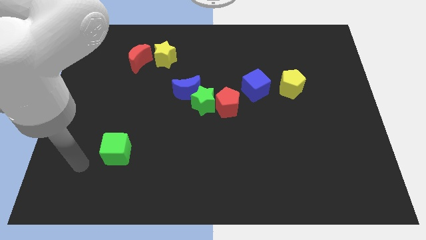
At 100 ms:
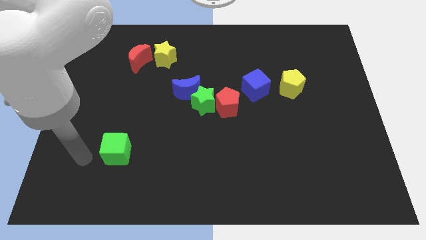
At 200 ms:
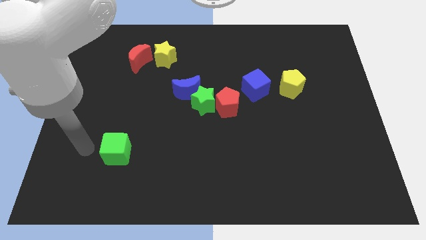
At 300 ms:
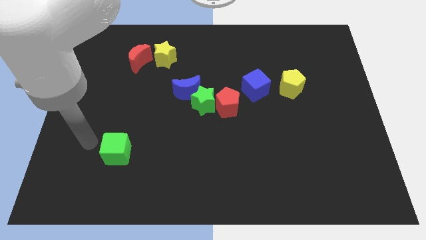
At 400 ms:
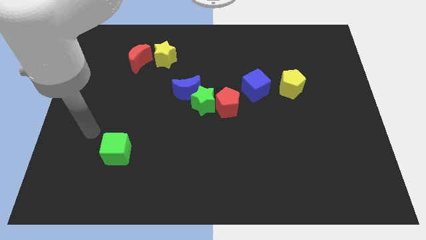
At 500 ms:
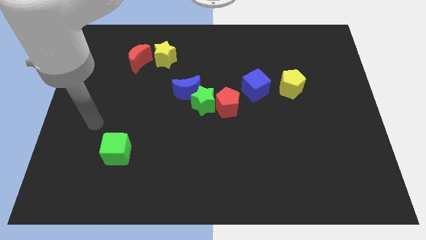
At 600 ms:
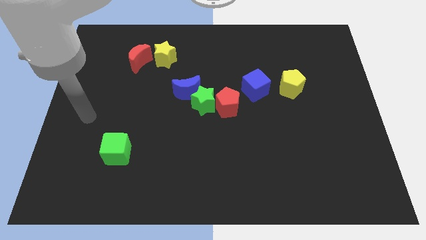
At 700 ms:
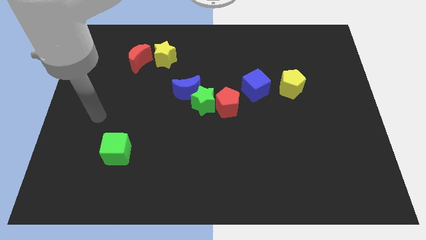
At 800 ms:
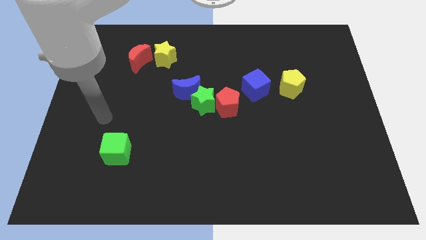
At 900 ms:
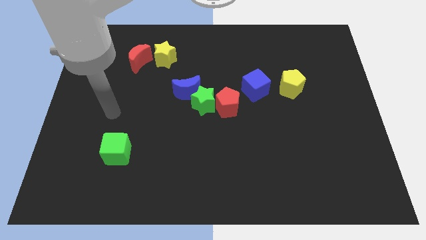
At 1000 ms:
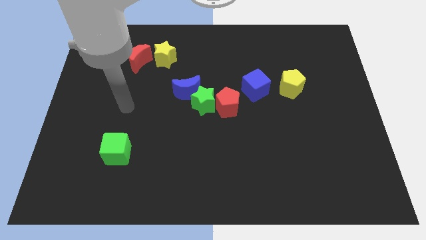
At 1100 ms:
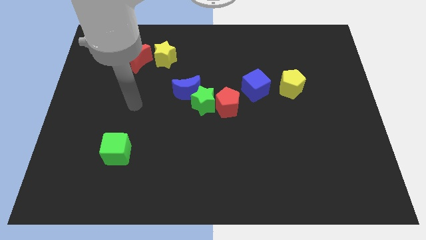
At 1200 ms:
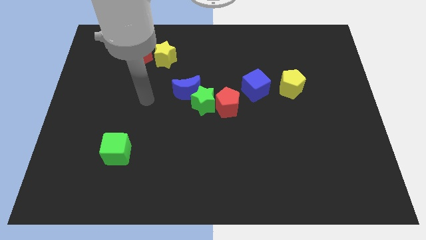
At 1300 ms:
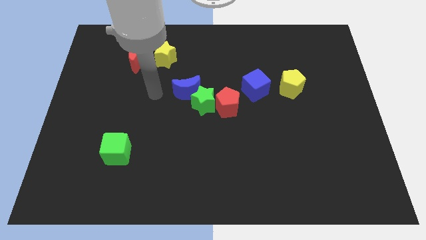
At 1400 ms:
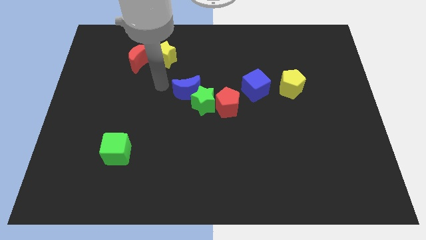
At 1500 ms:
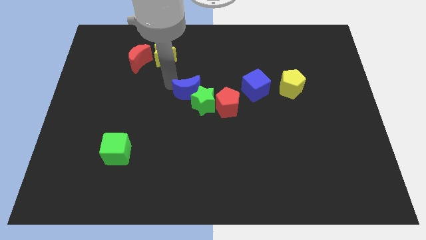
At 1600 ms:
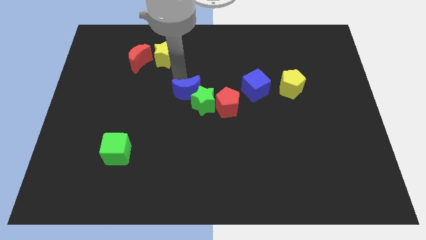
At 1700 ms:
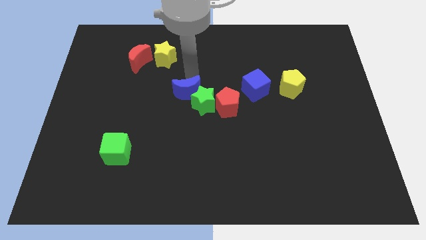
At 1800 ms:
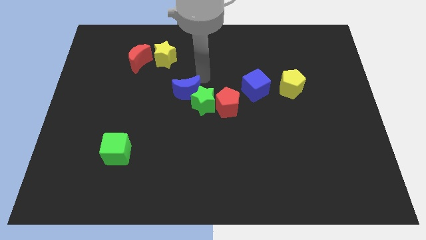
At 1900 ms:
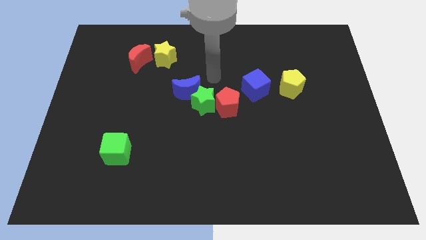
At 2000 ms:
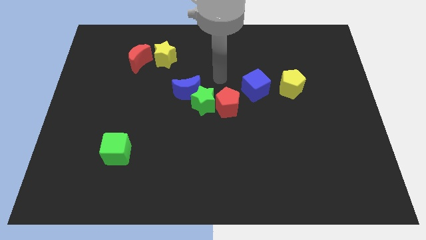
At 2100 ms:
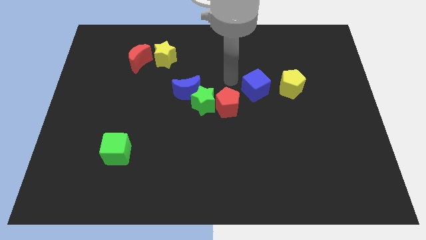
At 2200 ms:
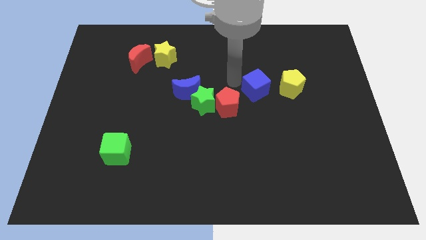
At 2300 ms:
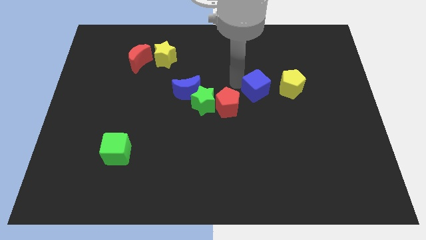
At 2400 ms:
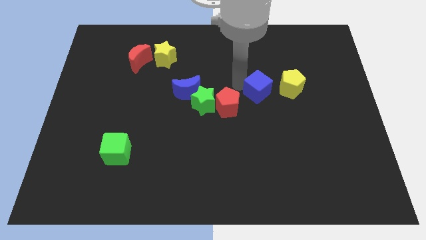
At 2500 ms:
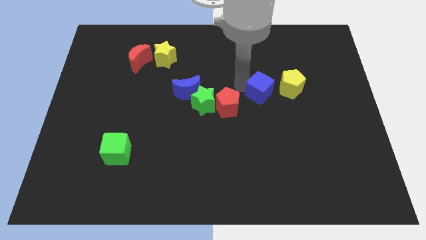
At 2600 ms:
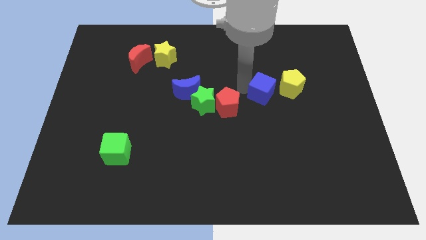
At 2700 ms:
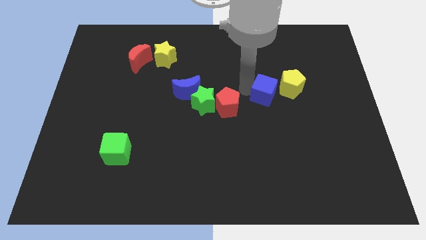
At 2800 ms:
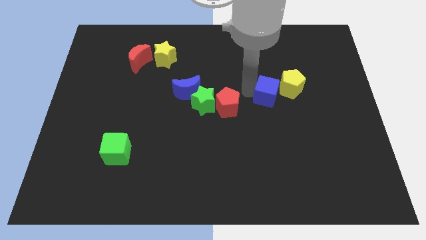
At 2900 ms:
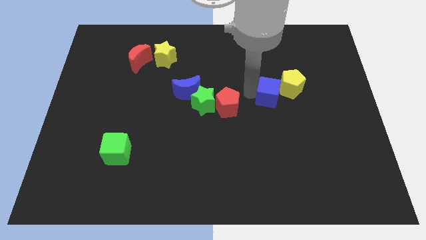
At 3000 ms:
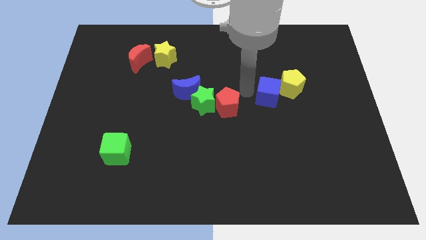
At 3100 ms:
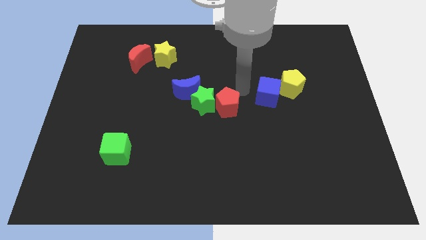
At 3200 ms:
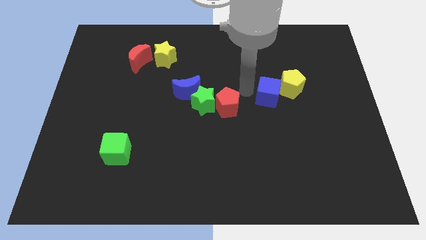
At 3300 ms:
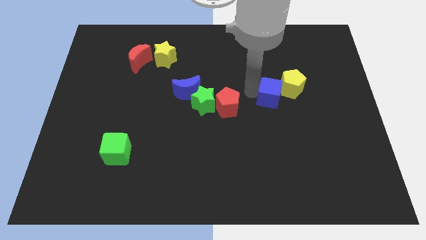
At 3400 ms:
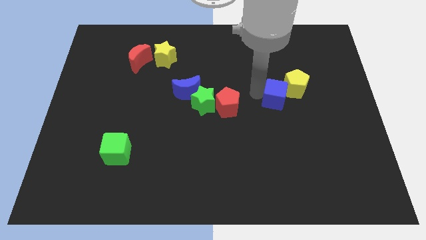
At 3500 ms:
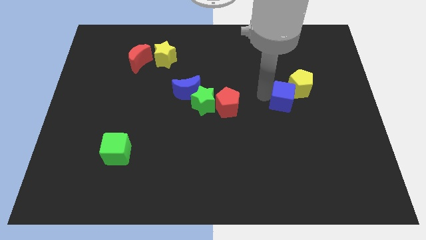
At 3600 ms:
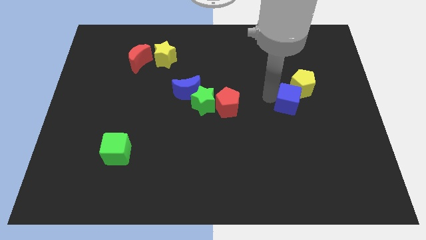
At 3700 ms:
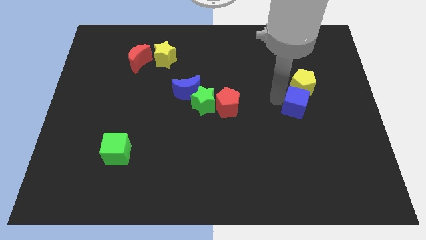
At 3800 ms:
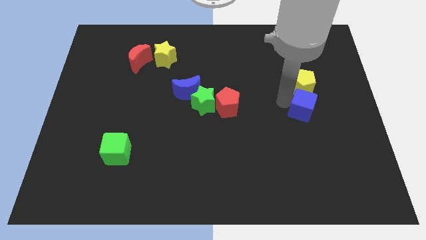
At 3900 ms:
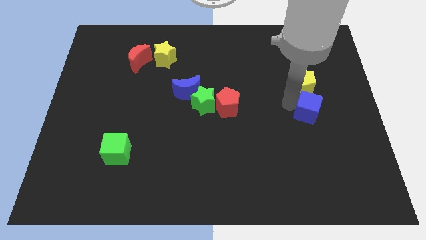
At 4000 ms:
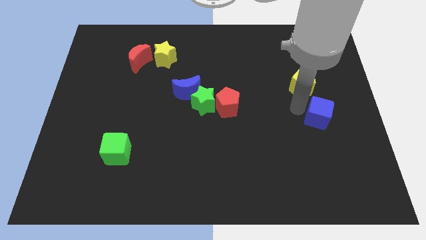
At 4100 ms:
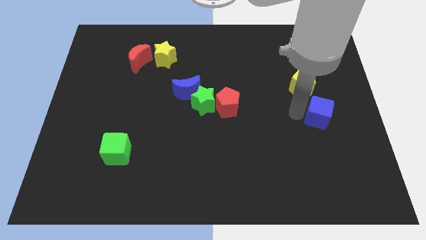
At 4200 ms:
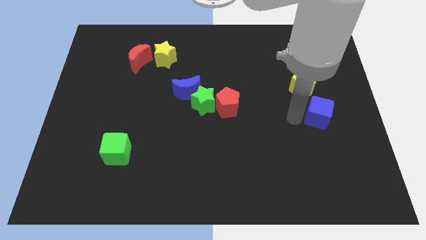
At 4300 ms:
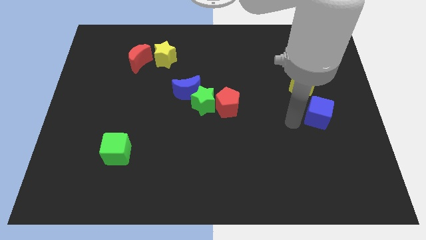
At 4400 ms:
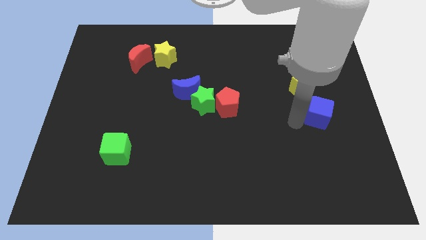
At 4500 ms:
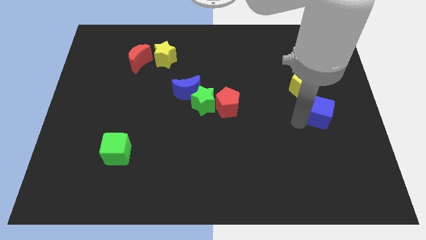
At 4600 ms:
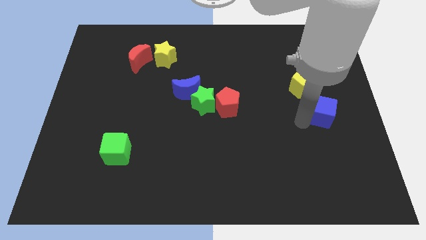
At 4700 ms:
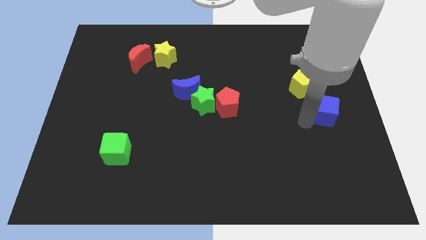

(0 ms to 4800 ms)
push the blue cube to the right side

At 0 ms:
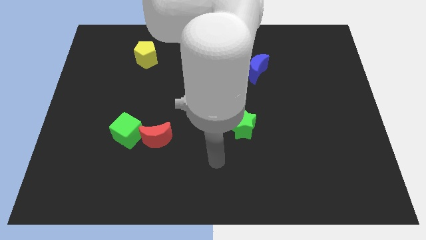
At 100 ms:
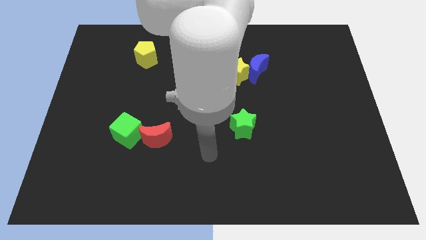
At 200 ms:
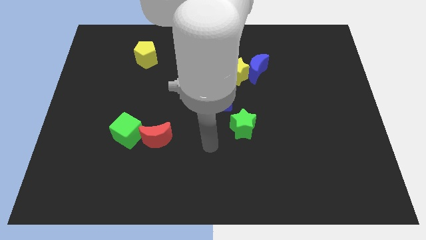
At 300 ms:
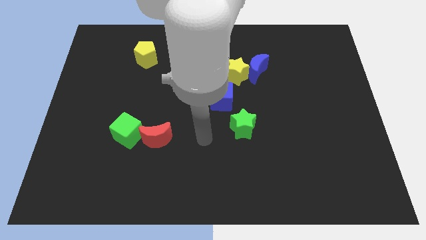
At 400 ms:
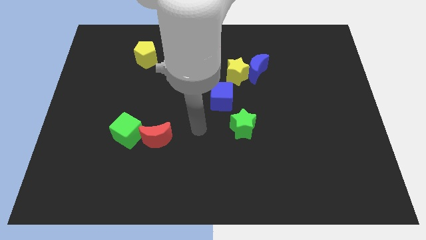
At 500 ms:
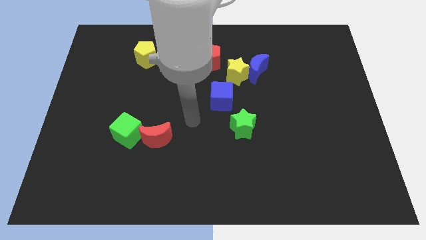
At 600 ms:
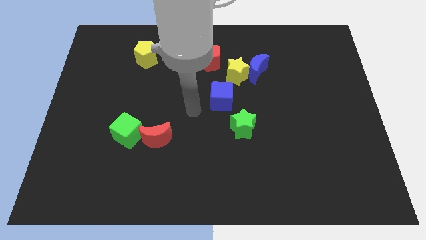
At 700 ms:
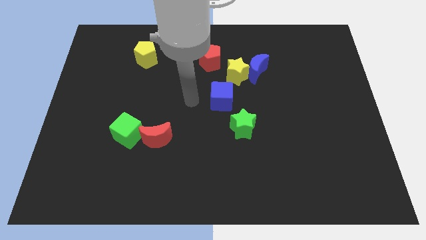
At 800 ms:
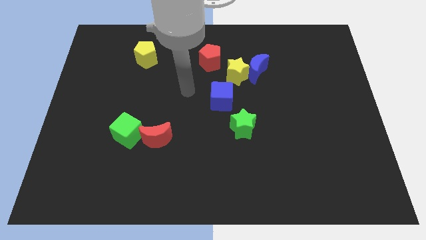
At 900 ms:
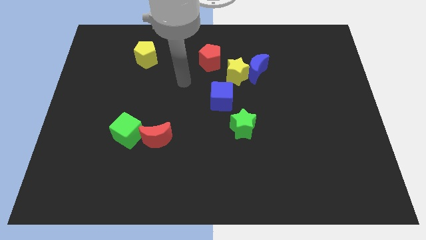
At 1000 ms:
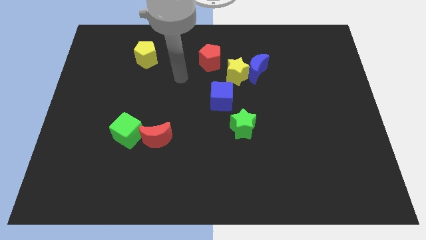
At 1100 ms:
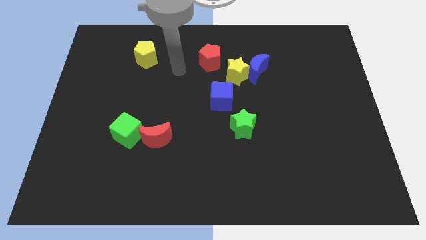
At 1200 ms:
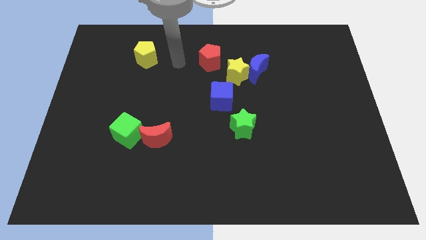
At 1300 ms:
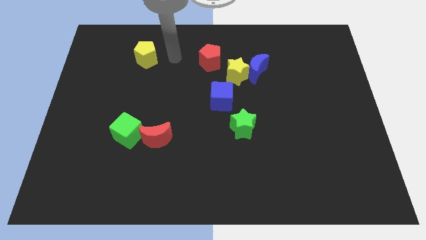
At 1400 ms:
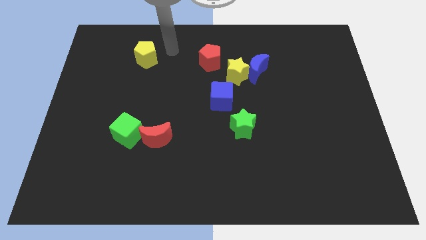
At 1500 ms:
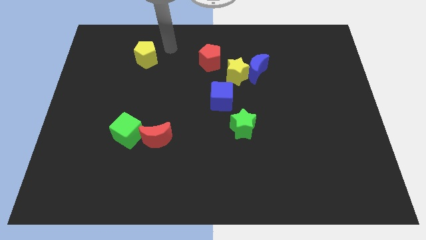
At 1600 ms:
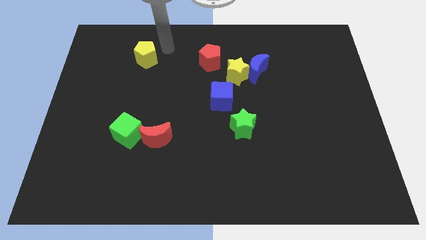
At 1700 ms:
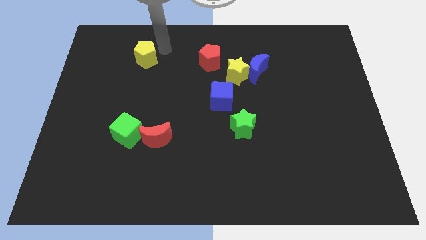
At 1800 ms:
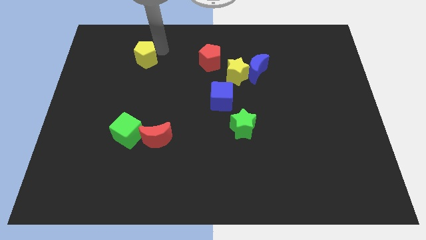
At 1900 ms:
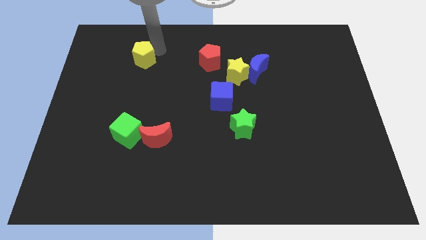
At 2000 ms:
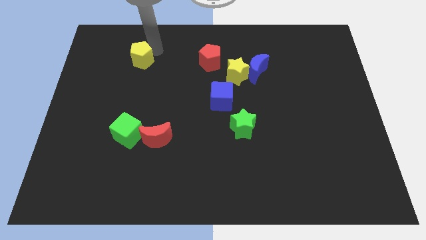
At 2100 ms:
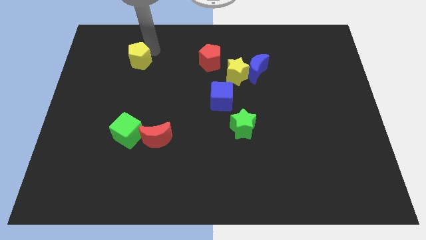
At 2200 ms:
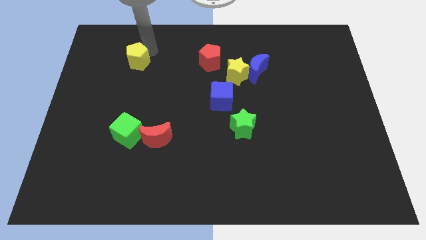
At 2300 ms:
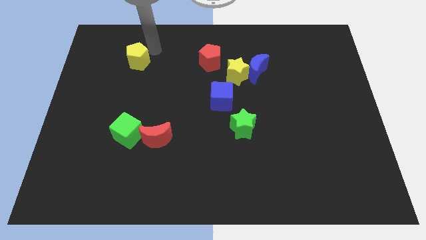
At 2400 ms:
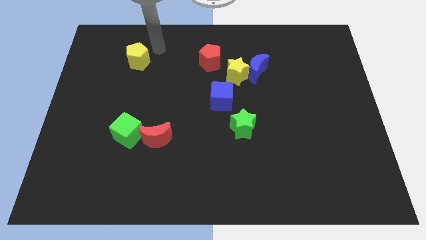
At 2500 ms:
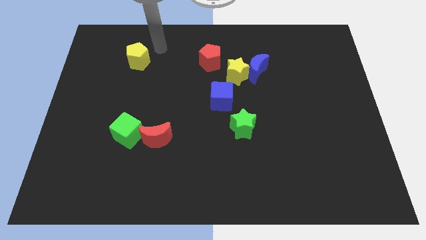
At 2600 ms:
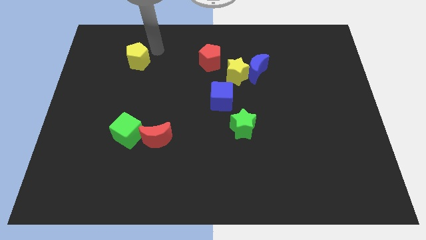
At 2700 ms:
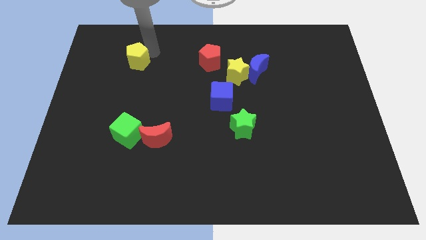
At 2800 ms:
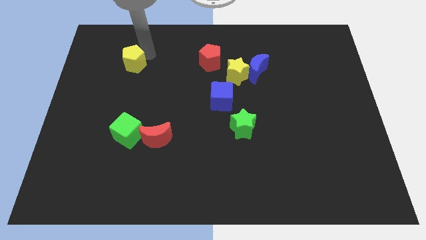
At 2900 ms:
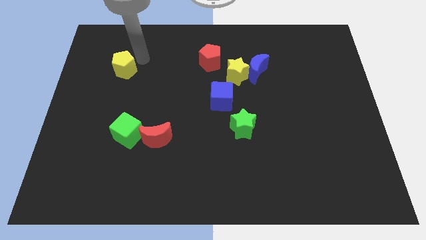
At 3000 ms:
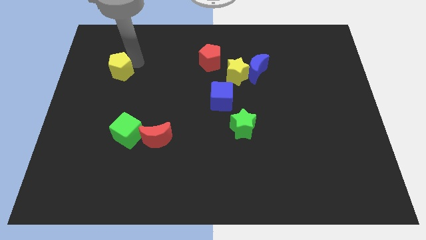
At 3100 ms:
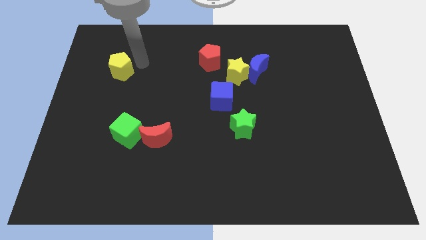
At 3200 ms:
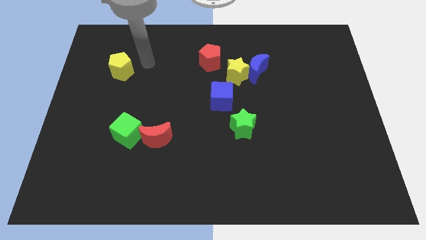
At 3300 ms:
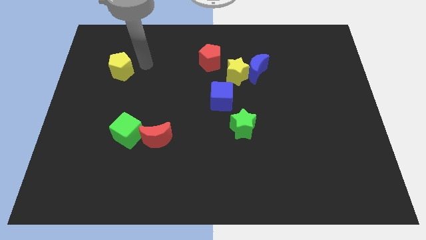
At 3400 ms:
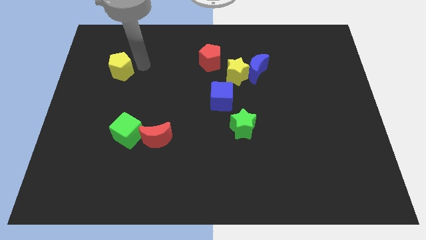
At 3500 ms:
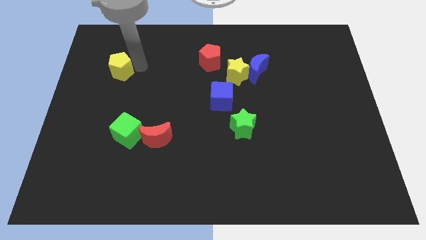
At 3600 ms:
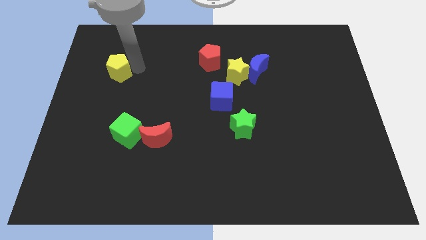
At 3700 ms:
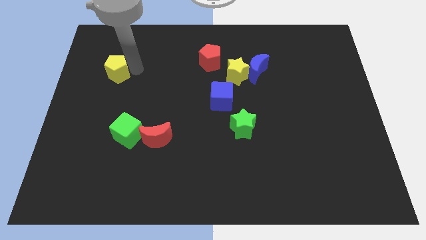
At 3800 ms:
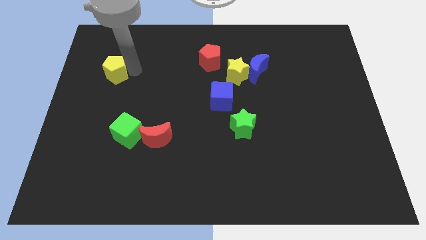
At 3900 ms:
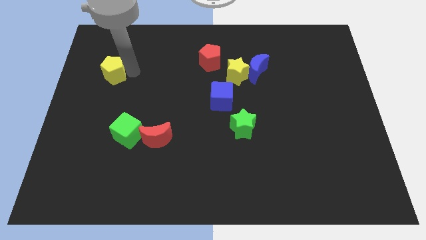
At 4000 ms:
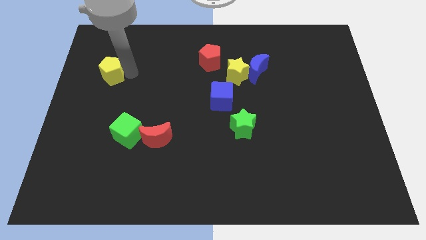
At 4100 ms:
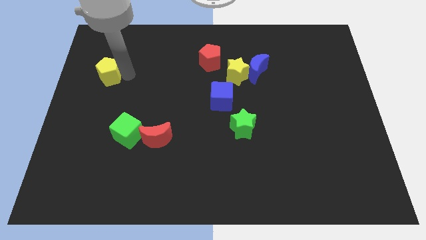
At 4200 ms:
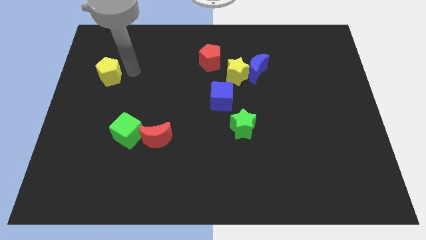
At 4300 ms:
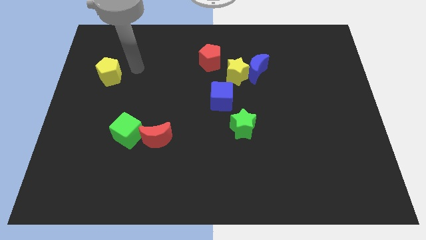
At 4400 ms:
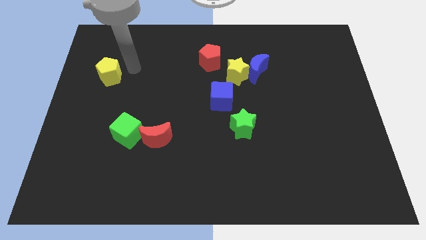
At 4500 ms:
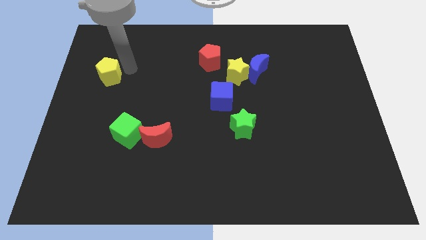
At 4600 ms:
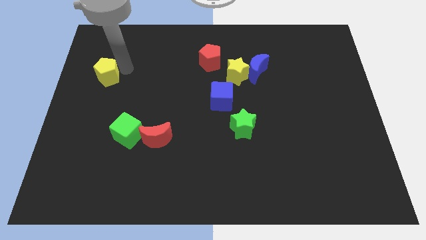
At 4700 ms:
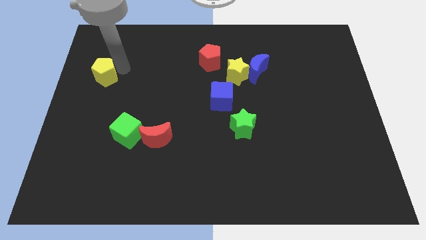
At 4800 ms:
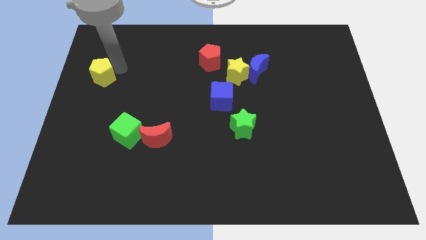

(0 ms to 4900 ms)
put the yellow pentagon to the left side of the board
